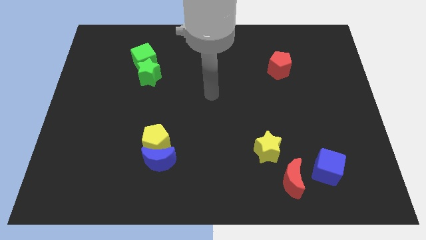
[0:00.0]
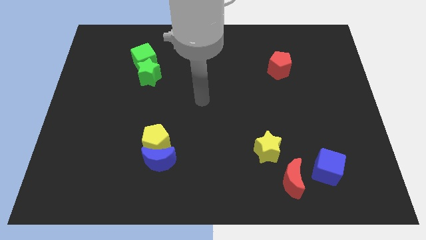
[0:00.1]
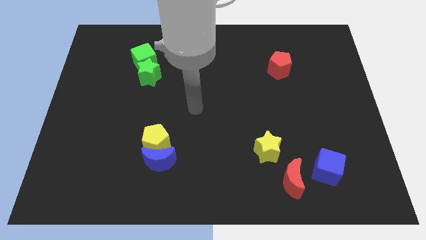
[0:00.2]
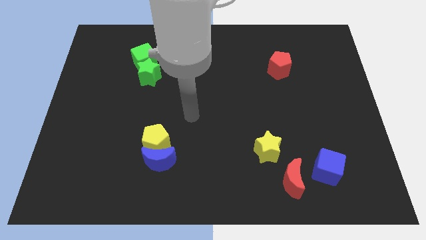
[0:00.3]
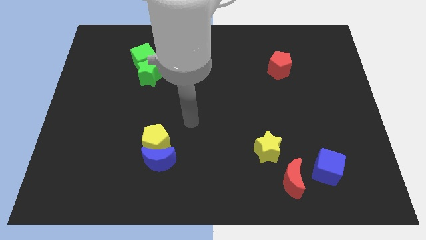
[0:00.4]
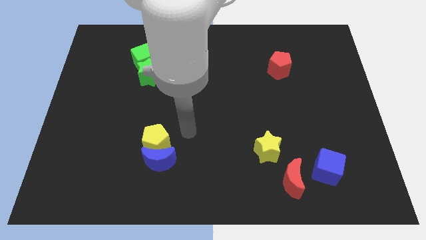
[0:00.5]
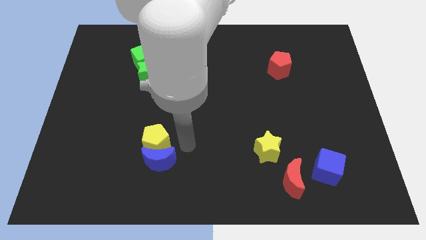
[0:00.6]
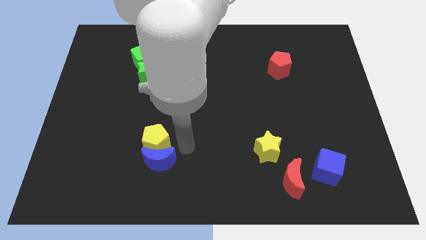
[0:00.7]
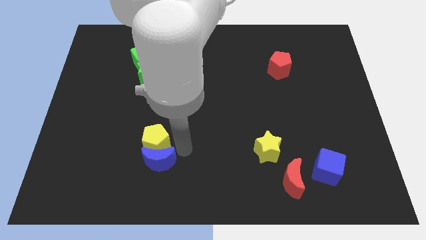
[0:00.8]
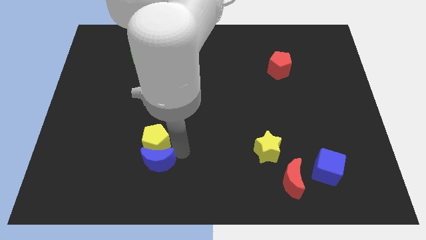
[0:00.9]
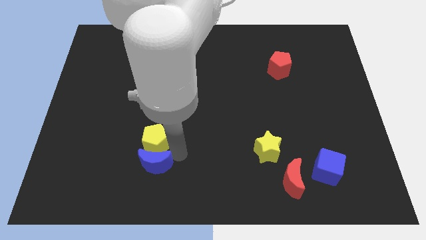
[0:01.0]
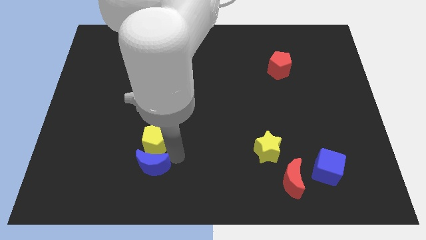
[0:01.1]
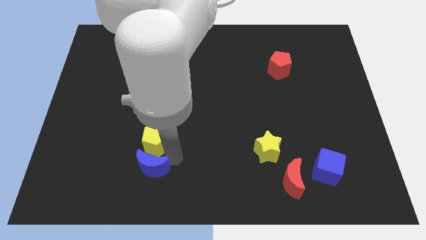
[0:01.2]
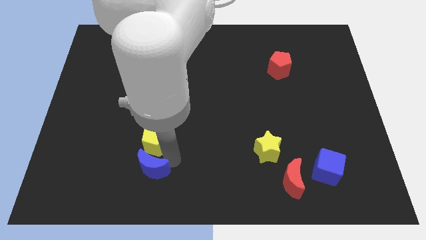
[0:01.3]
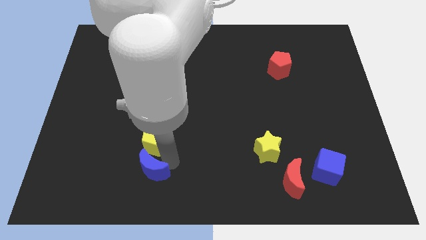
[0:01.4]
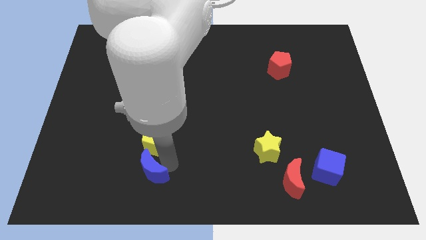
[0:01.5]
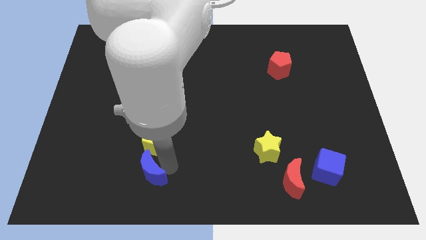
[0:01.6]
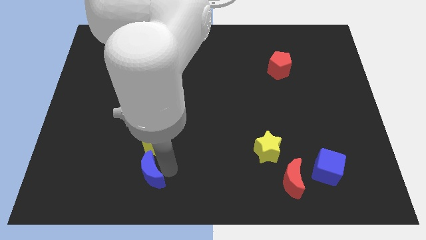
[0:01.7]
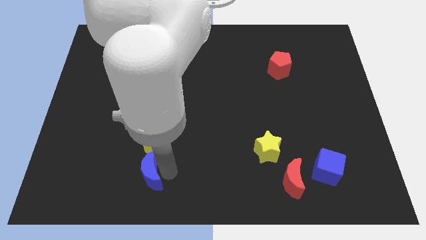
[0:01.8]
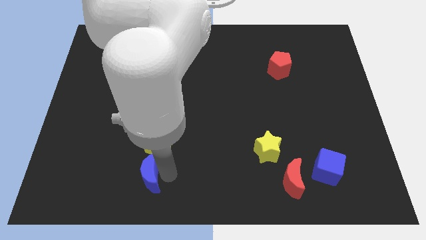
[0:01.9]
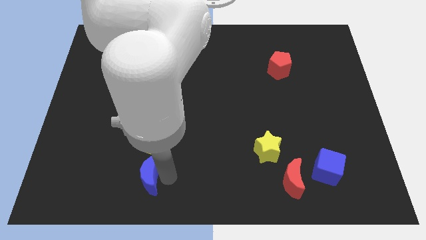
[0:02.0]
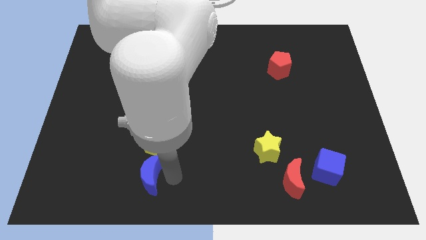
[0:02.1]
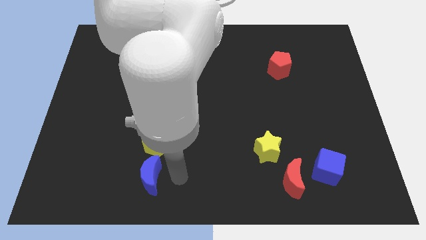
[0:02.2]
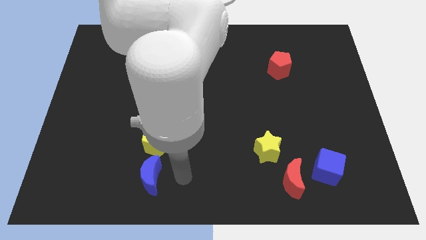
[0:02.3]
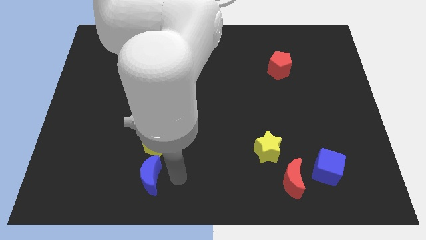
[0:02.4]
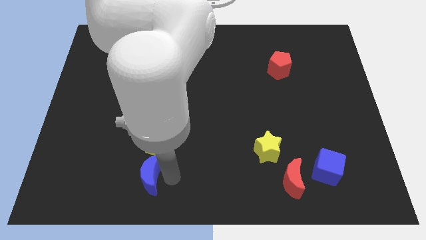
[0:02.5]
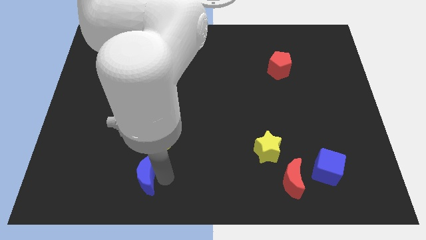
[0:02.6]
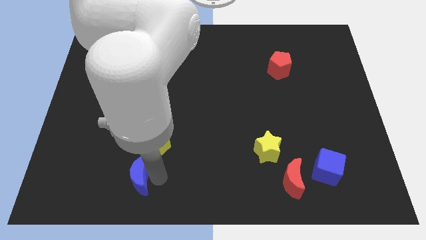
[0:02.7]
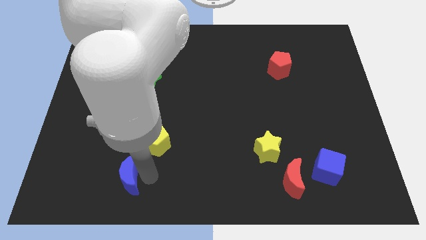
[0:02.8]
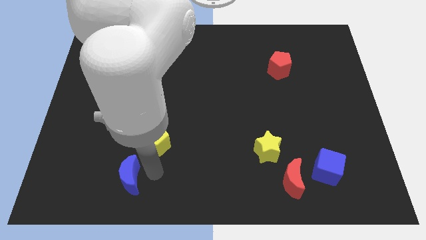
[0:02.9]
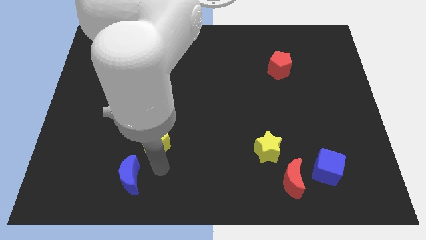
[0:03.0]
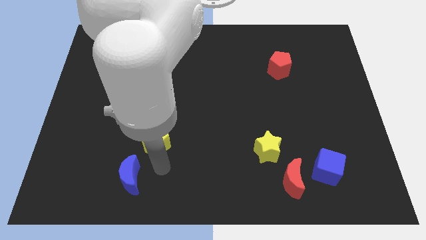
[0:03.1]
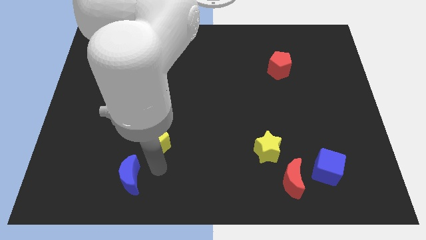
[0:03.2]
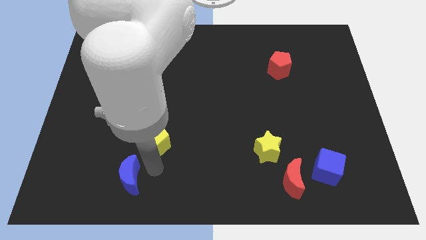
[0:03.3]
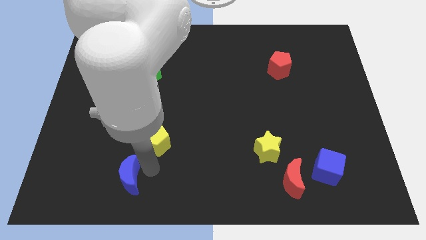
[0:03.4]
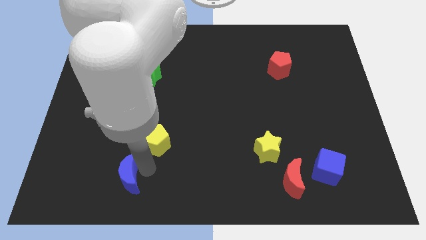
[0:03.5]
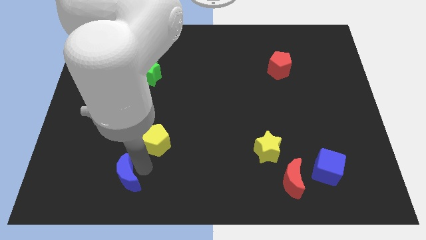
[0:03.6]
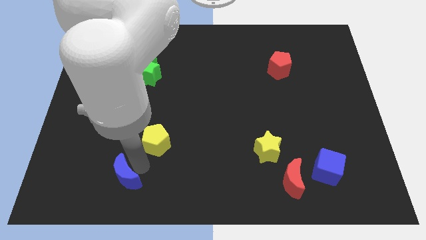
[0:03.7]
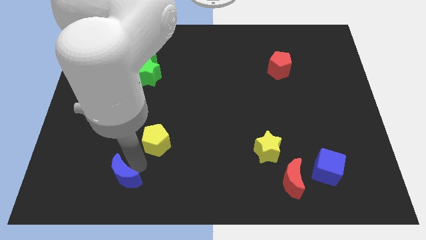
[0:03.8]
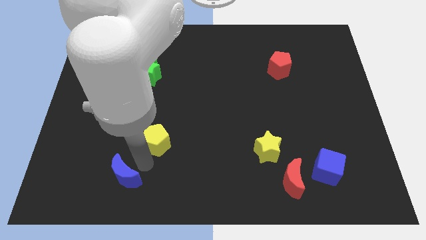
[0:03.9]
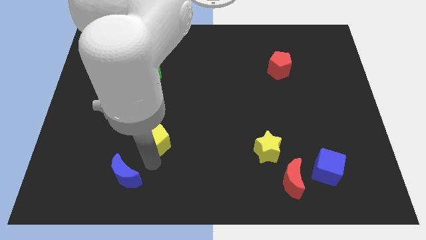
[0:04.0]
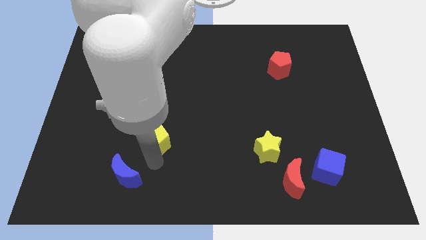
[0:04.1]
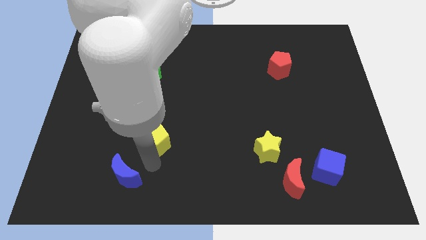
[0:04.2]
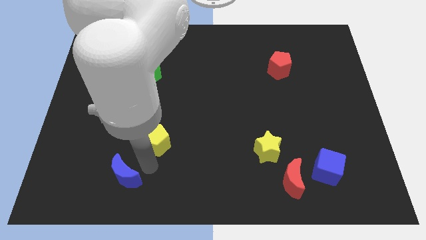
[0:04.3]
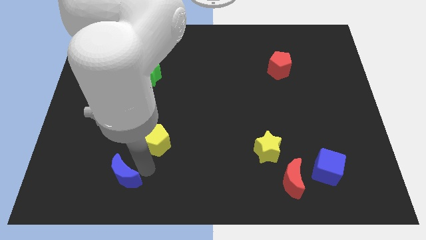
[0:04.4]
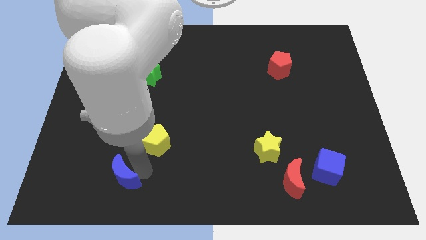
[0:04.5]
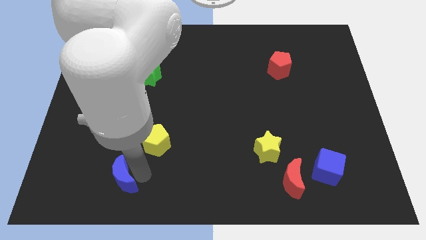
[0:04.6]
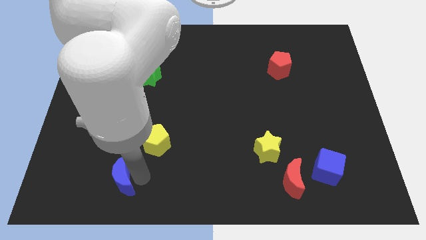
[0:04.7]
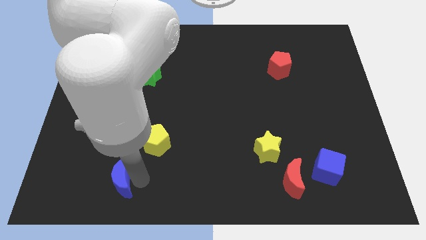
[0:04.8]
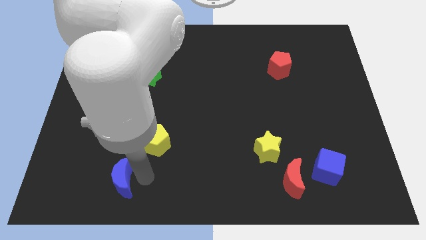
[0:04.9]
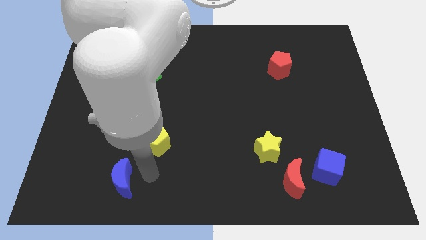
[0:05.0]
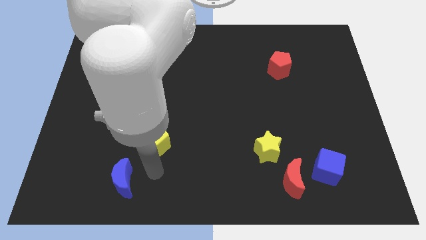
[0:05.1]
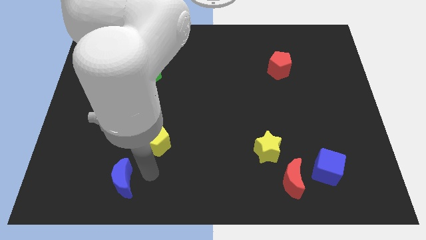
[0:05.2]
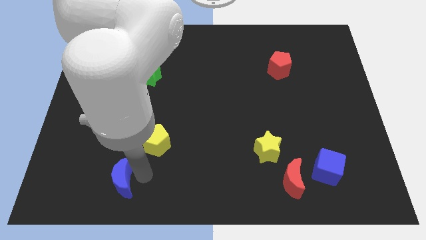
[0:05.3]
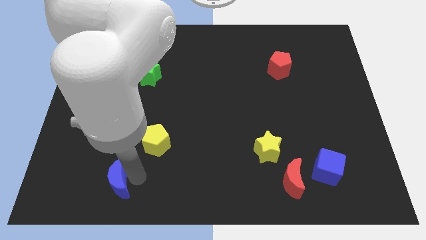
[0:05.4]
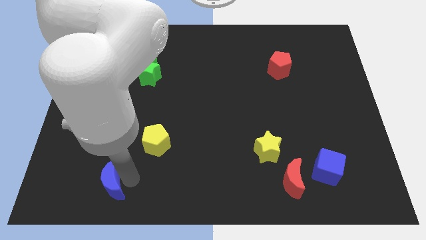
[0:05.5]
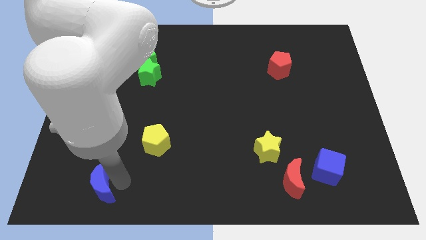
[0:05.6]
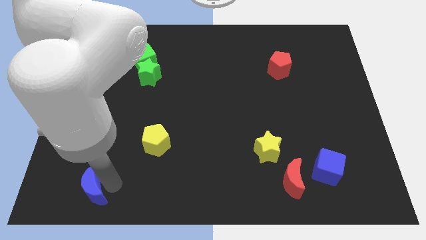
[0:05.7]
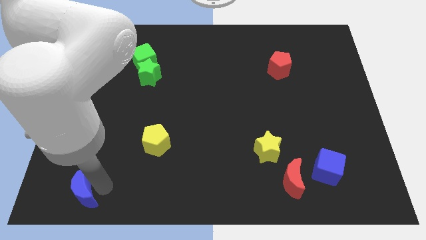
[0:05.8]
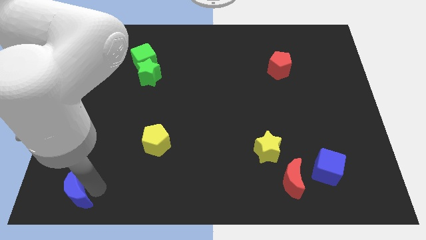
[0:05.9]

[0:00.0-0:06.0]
slide the blue moon to the bottom left
